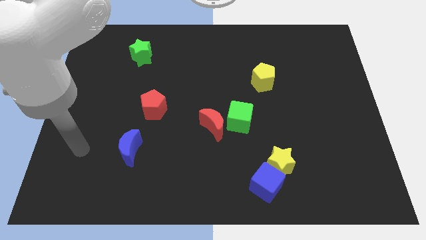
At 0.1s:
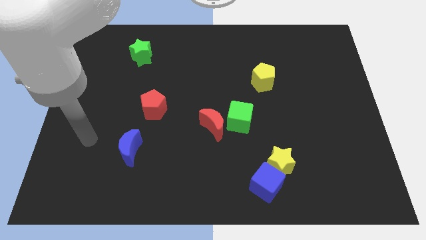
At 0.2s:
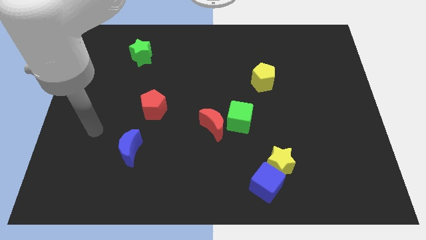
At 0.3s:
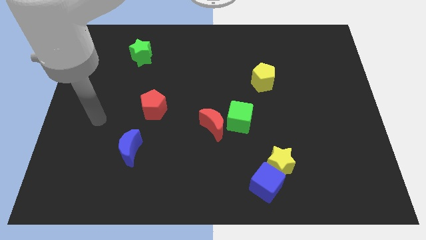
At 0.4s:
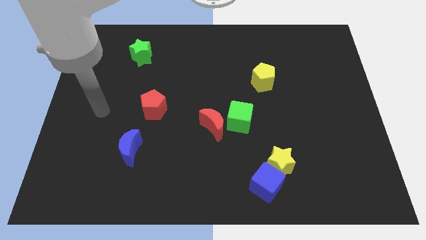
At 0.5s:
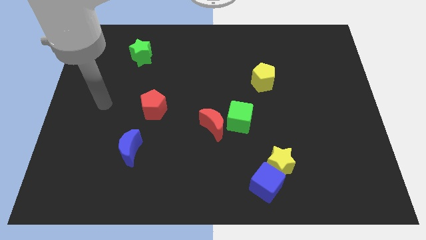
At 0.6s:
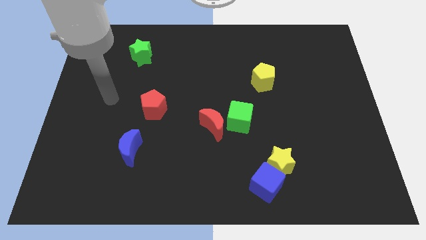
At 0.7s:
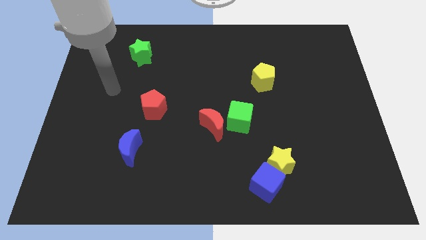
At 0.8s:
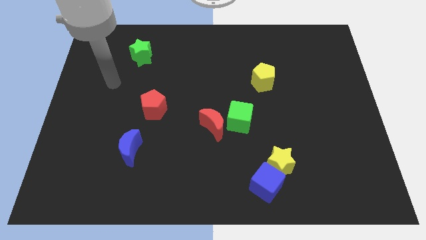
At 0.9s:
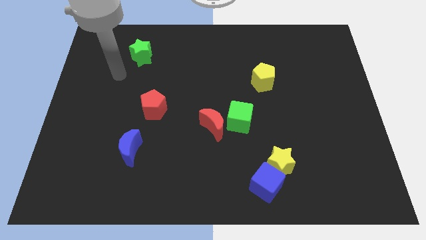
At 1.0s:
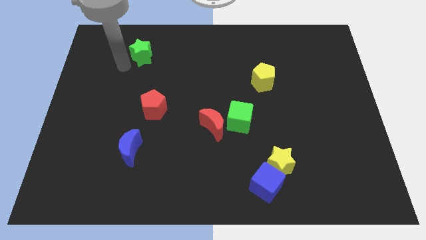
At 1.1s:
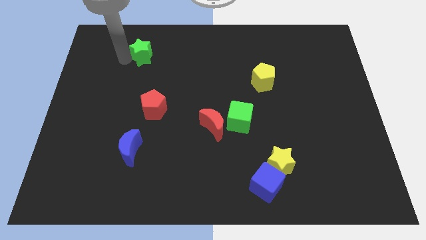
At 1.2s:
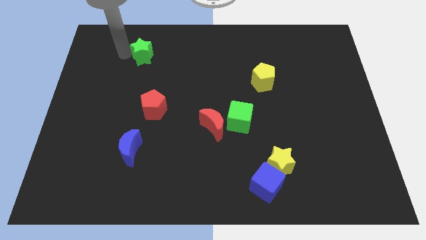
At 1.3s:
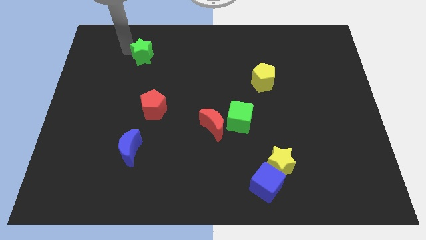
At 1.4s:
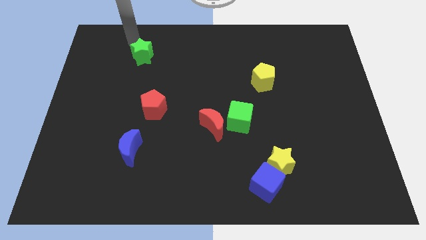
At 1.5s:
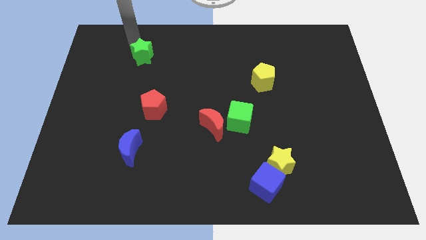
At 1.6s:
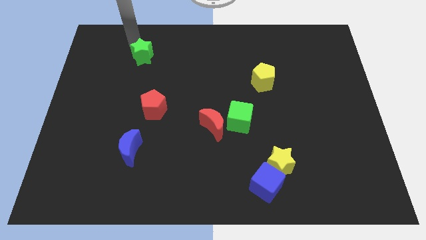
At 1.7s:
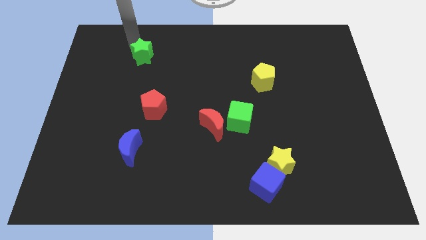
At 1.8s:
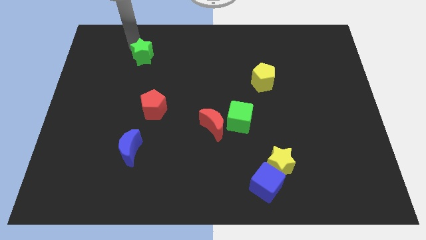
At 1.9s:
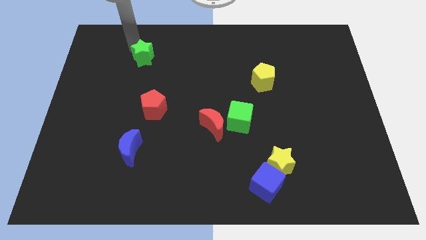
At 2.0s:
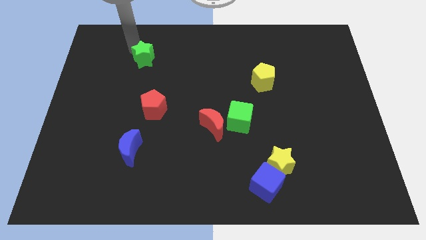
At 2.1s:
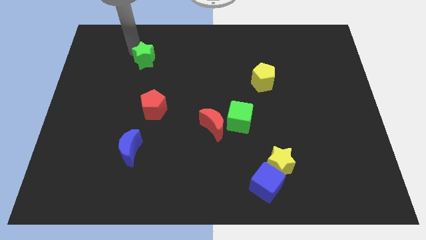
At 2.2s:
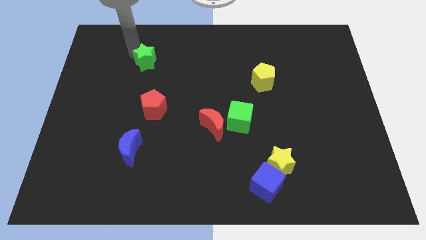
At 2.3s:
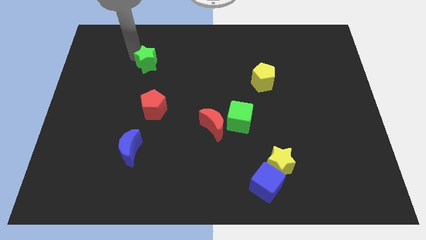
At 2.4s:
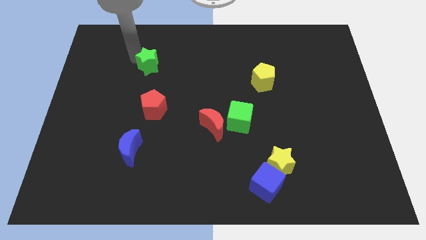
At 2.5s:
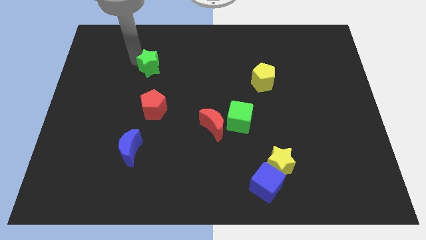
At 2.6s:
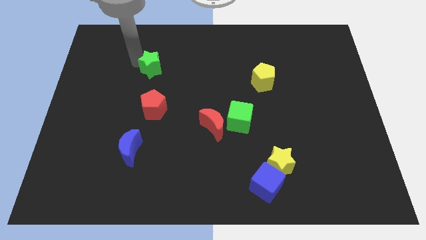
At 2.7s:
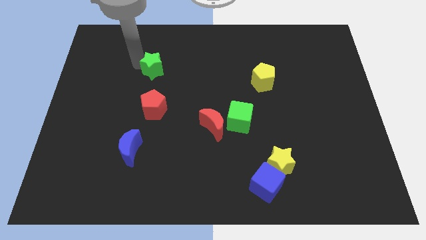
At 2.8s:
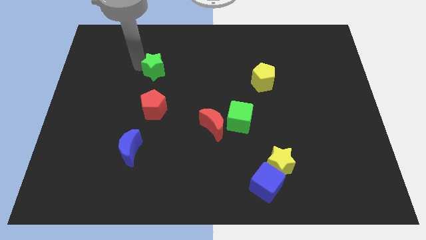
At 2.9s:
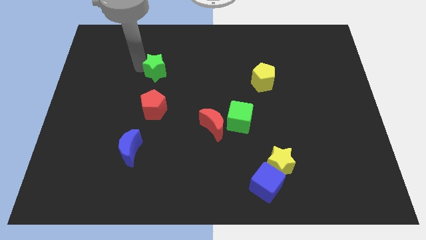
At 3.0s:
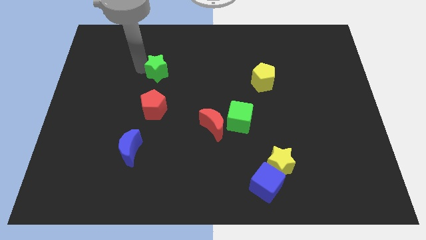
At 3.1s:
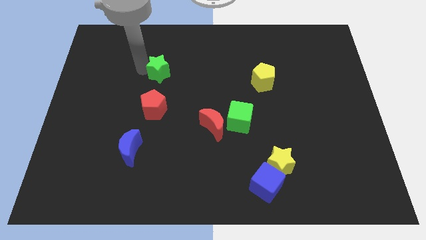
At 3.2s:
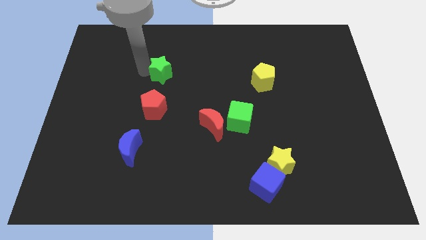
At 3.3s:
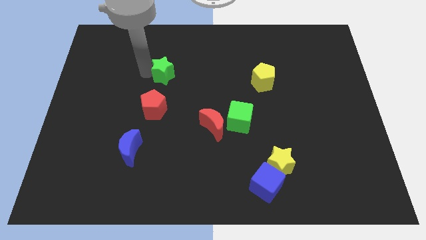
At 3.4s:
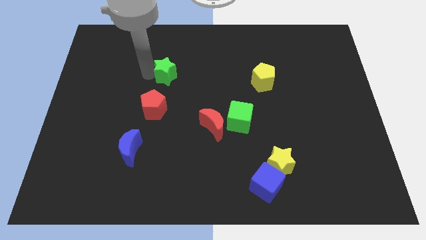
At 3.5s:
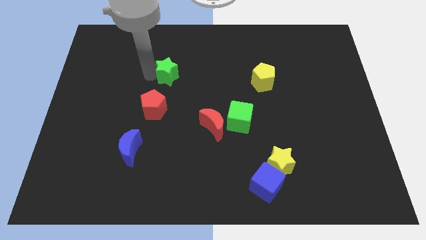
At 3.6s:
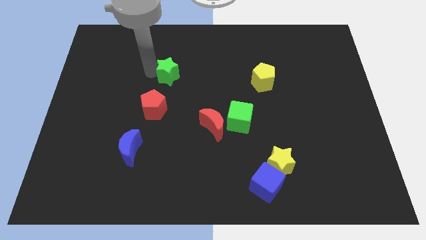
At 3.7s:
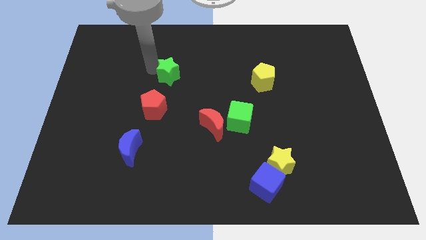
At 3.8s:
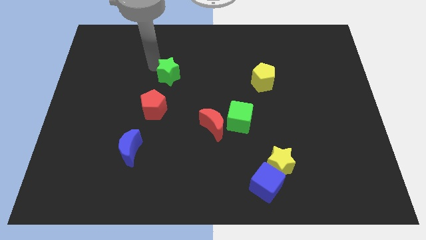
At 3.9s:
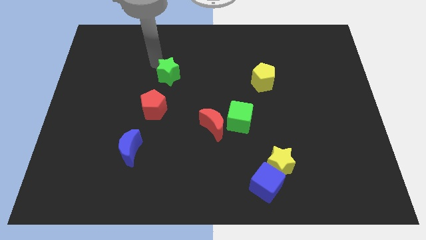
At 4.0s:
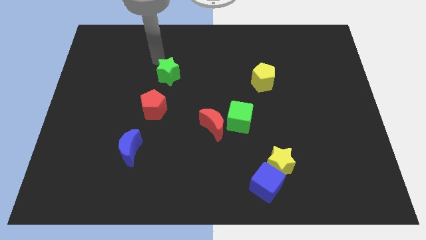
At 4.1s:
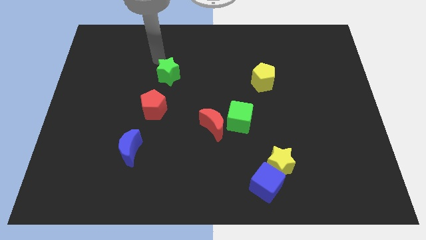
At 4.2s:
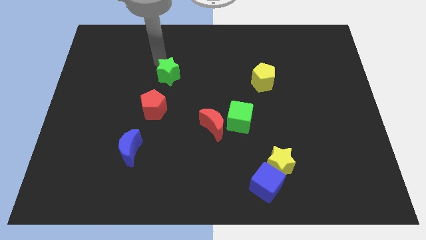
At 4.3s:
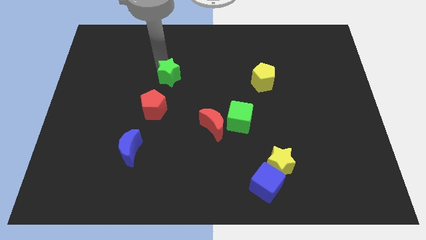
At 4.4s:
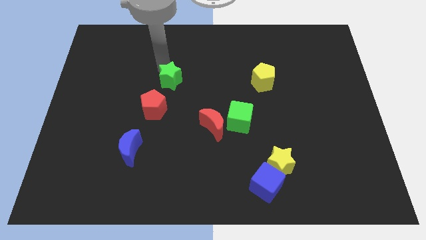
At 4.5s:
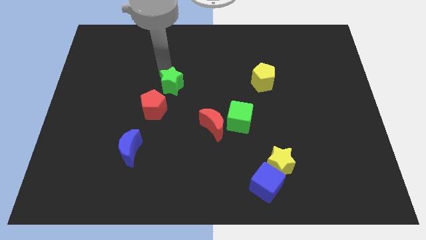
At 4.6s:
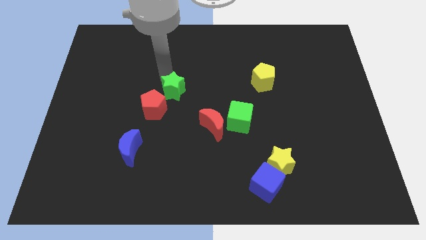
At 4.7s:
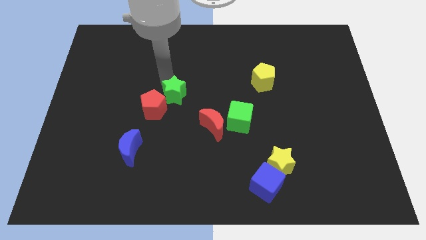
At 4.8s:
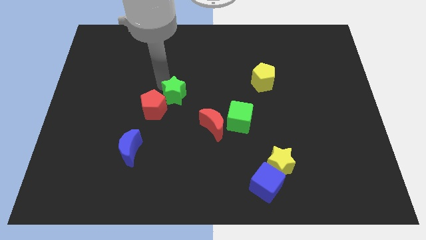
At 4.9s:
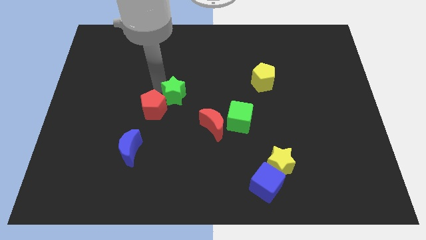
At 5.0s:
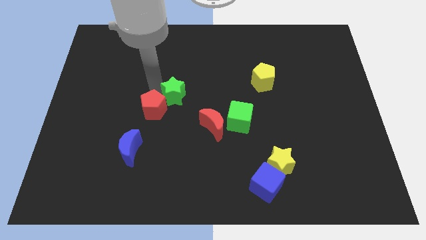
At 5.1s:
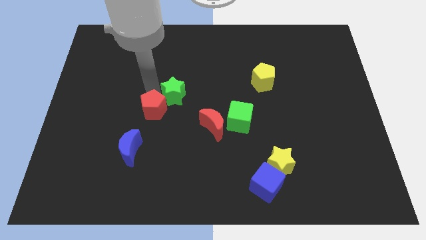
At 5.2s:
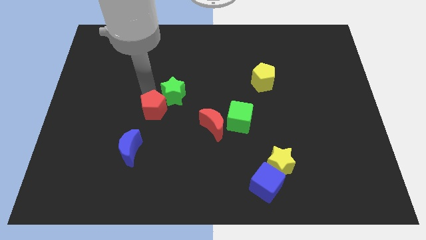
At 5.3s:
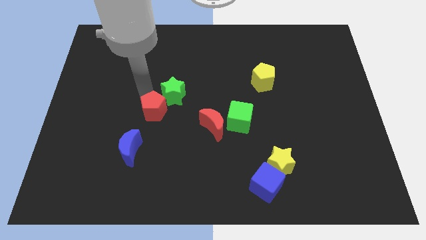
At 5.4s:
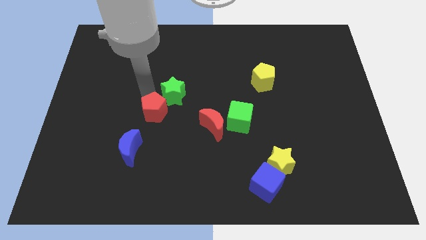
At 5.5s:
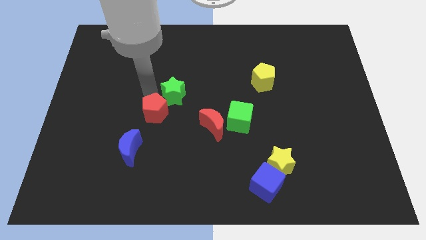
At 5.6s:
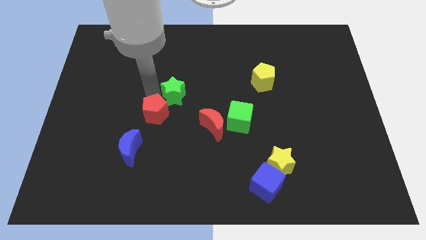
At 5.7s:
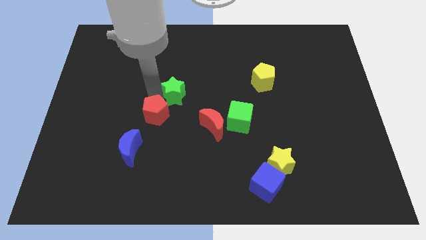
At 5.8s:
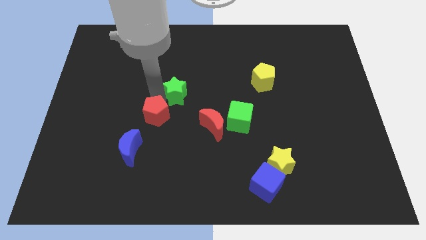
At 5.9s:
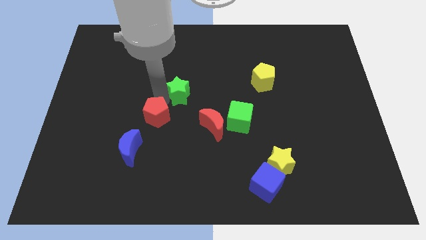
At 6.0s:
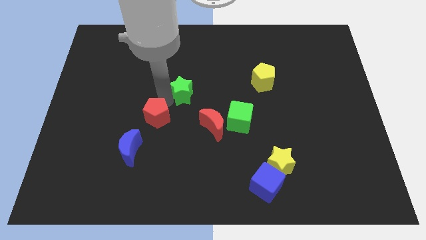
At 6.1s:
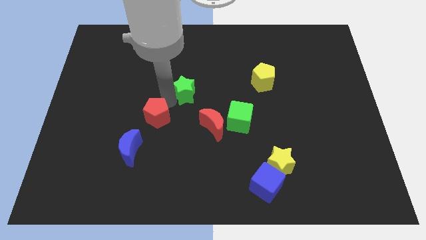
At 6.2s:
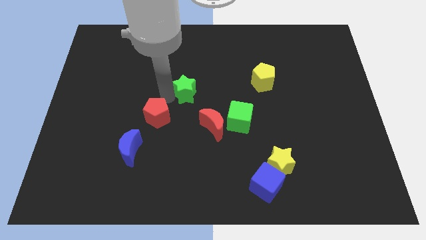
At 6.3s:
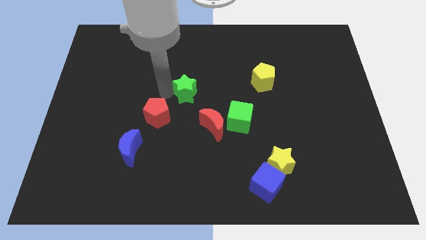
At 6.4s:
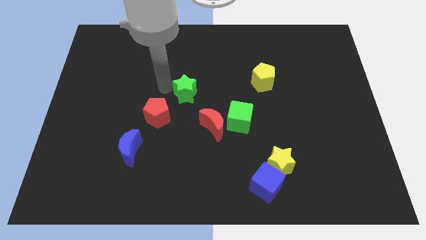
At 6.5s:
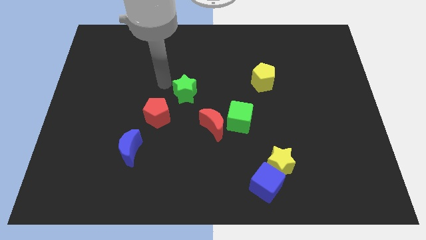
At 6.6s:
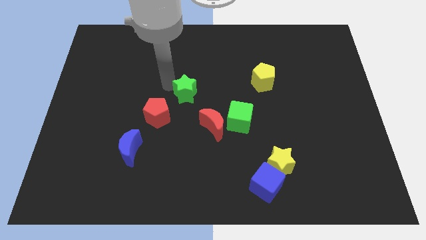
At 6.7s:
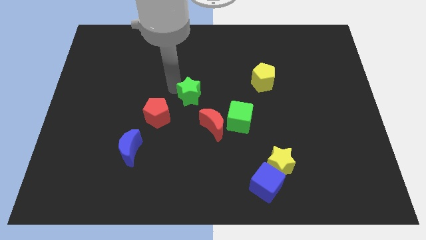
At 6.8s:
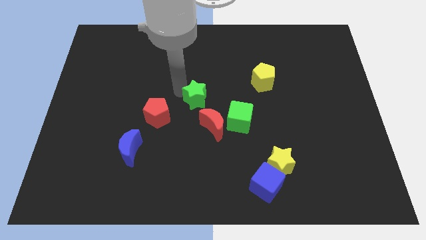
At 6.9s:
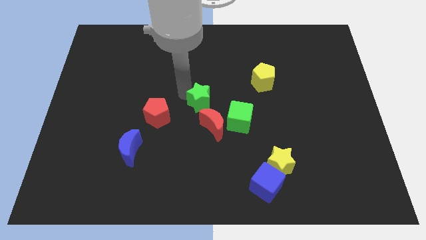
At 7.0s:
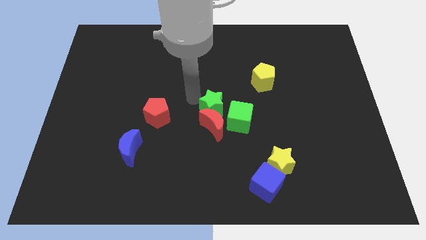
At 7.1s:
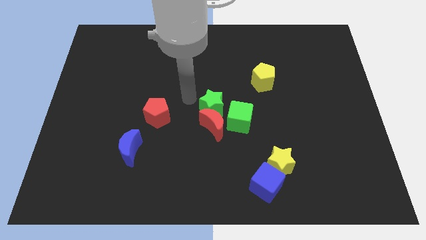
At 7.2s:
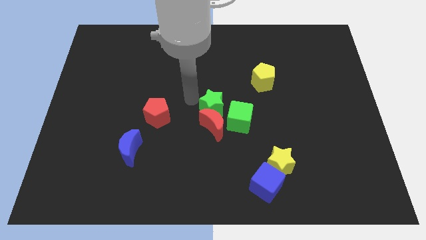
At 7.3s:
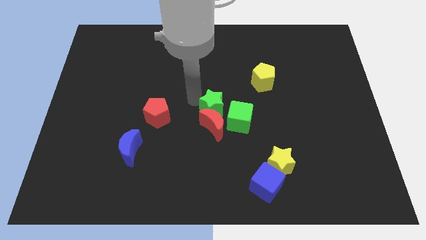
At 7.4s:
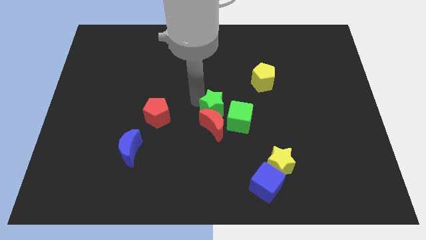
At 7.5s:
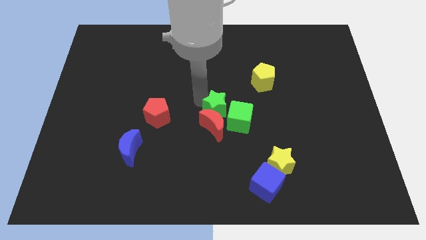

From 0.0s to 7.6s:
slide the green star to the green cube
